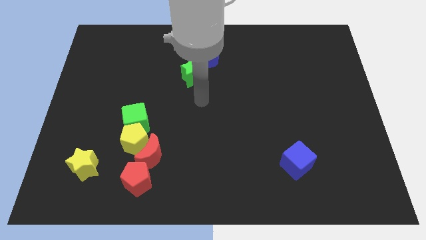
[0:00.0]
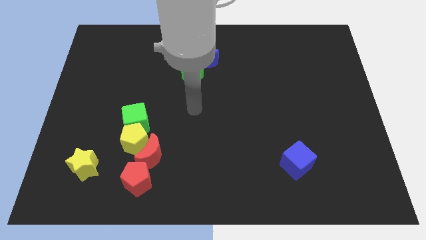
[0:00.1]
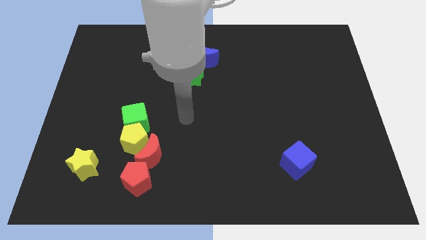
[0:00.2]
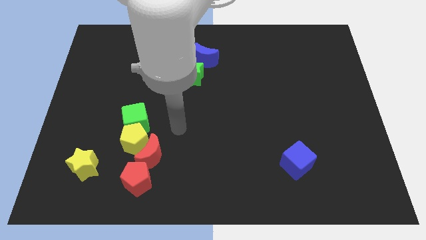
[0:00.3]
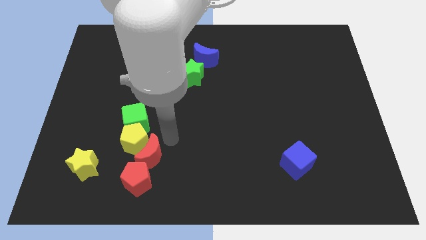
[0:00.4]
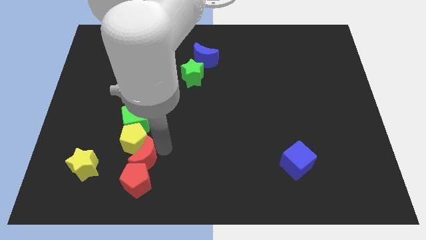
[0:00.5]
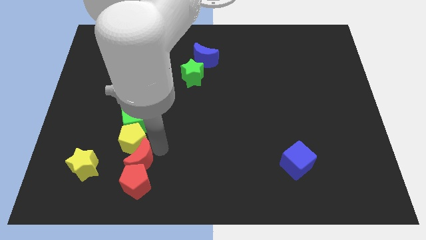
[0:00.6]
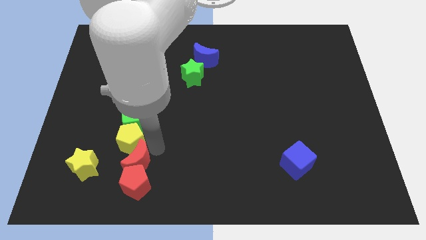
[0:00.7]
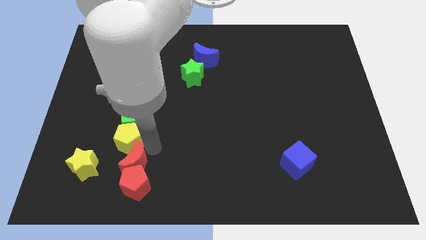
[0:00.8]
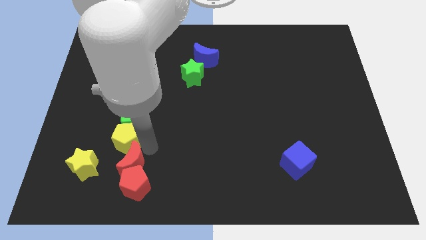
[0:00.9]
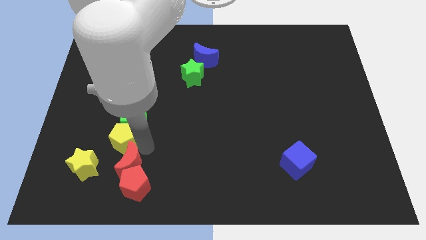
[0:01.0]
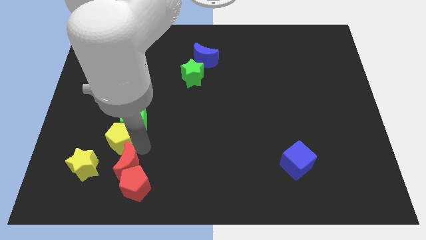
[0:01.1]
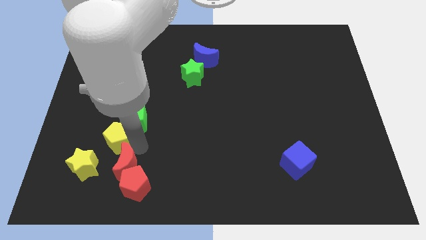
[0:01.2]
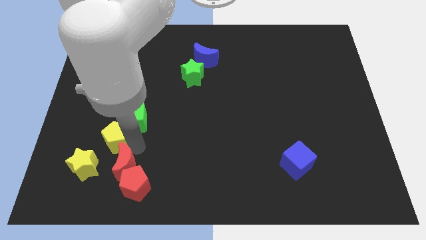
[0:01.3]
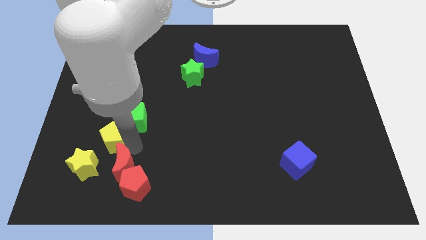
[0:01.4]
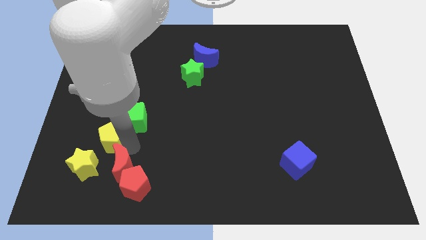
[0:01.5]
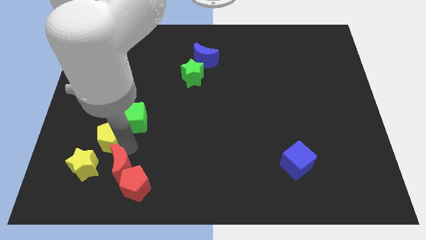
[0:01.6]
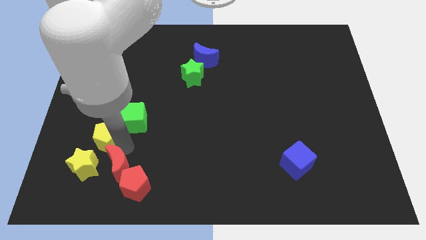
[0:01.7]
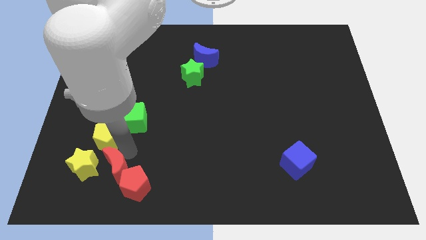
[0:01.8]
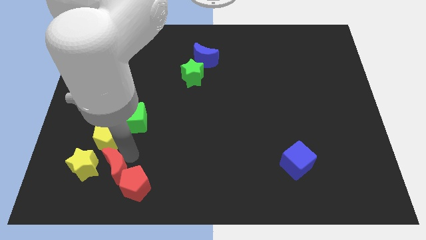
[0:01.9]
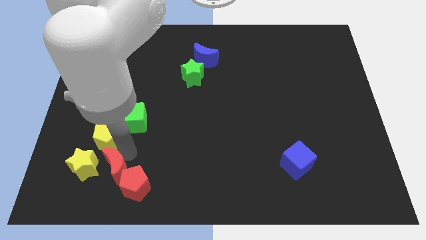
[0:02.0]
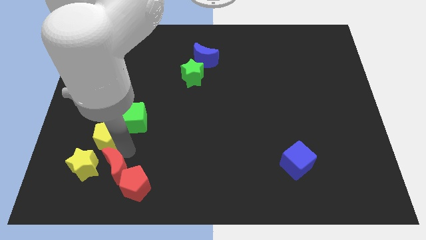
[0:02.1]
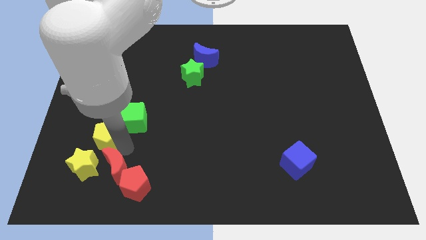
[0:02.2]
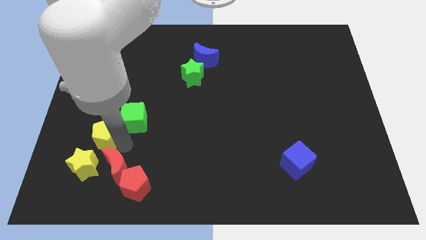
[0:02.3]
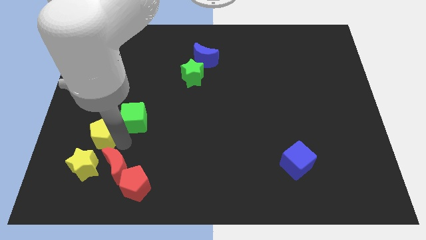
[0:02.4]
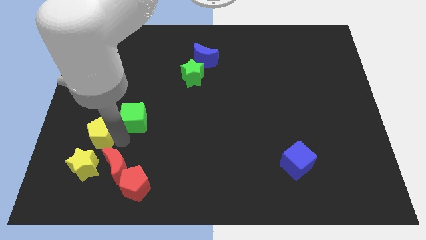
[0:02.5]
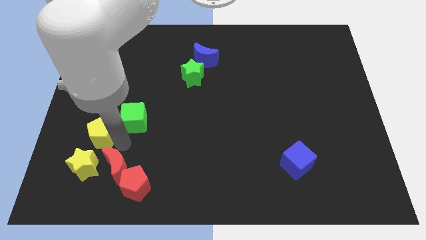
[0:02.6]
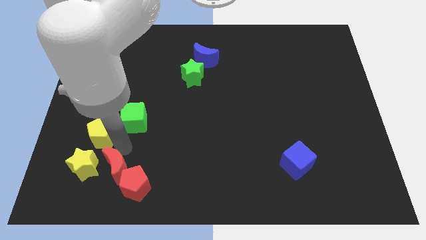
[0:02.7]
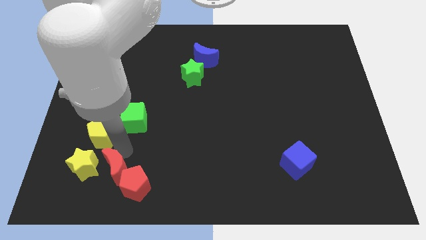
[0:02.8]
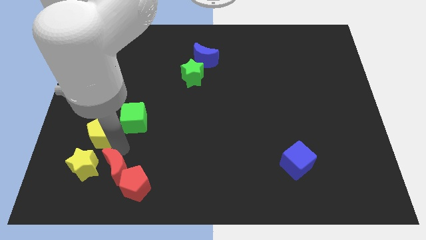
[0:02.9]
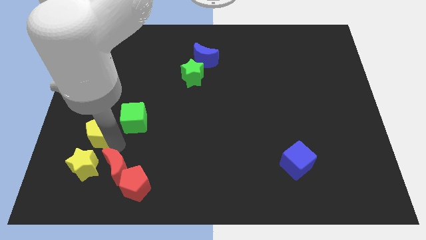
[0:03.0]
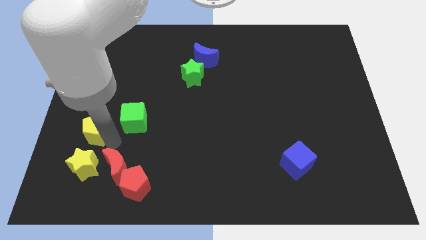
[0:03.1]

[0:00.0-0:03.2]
pull the yellow pentagon apart from the green cube, red moon, and red pentagon

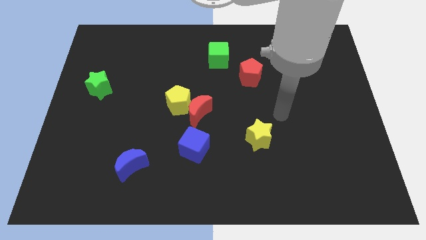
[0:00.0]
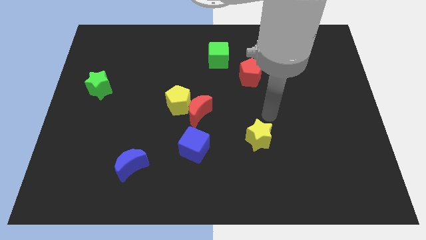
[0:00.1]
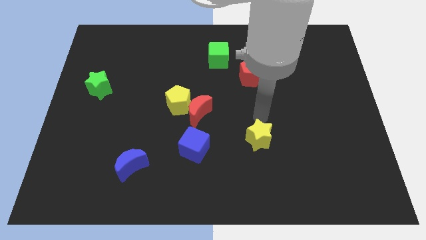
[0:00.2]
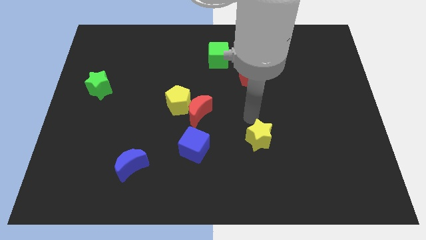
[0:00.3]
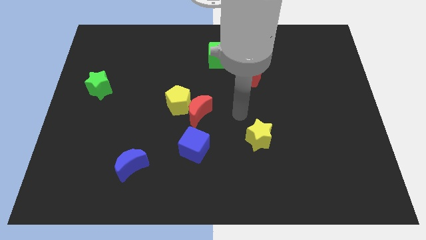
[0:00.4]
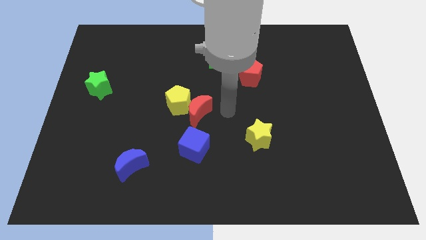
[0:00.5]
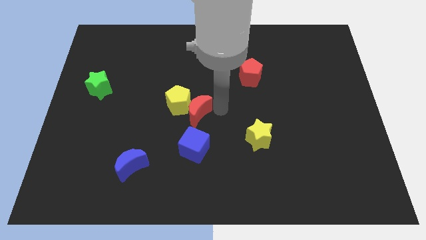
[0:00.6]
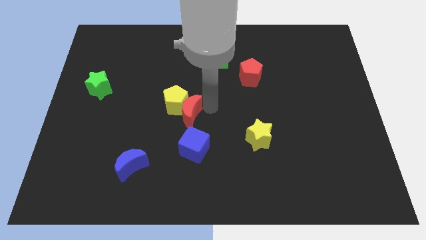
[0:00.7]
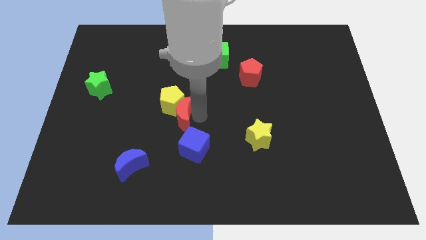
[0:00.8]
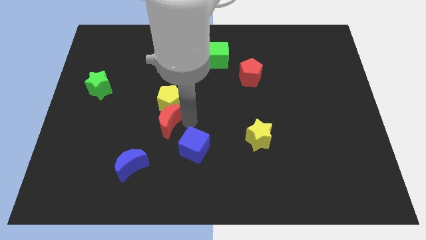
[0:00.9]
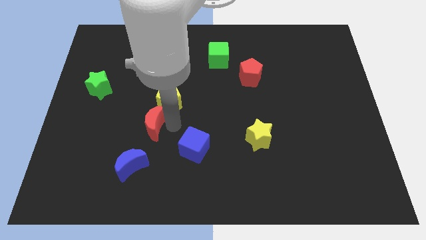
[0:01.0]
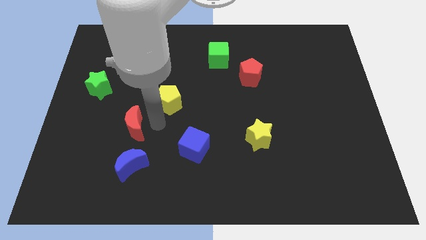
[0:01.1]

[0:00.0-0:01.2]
separate the yellow pentagon from the red moon

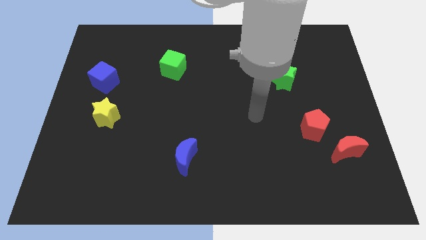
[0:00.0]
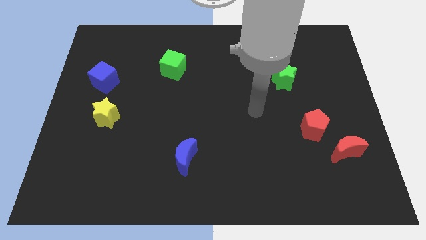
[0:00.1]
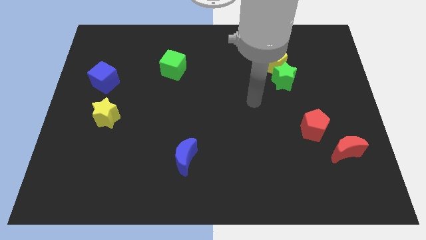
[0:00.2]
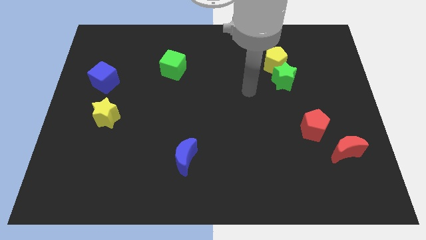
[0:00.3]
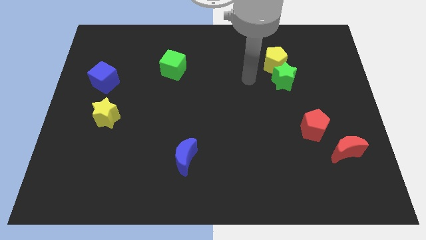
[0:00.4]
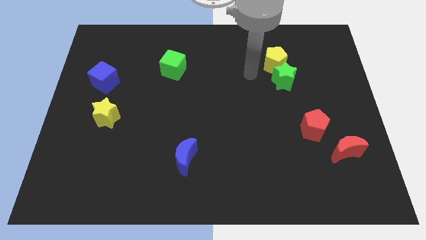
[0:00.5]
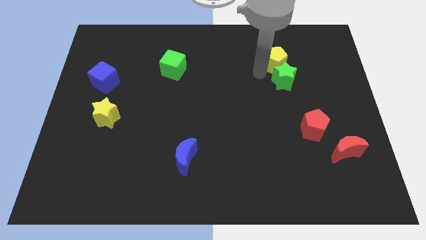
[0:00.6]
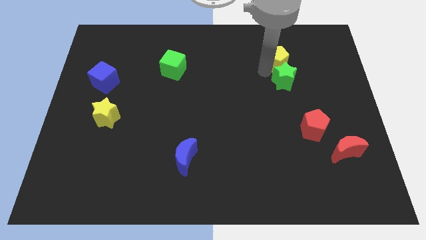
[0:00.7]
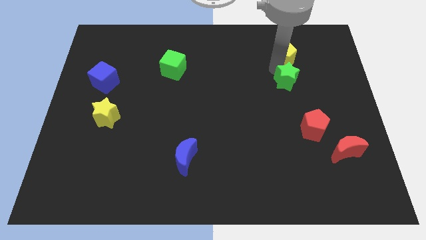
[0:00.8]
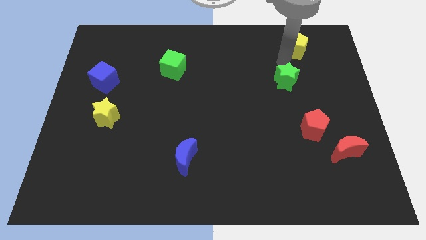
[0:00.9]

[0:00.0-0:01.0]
pull the green star apart from the yellow pentagon

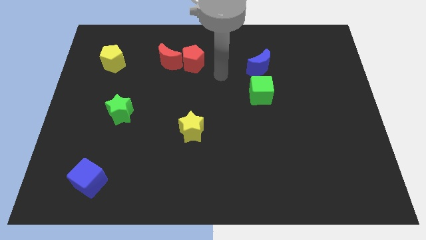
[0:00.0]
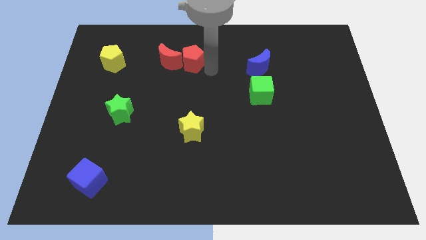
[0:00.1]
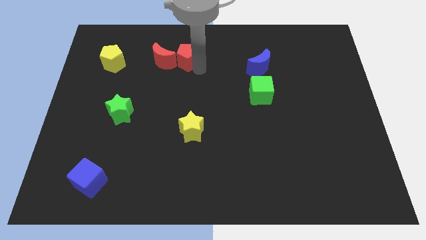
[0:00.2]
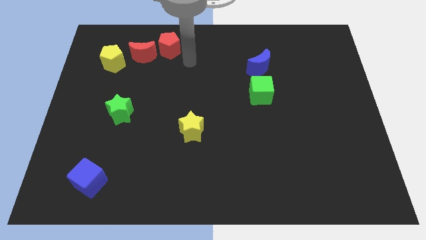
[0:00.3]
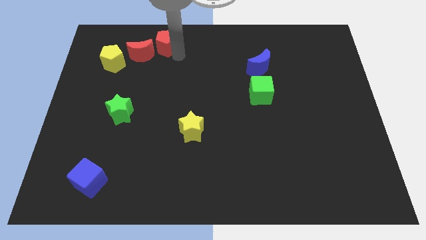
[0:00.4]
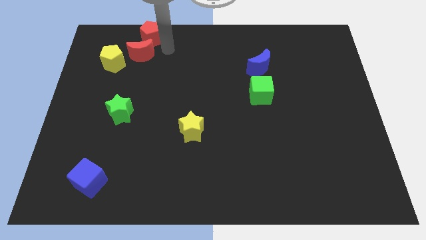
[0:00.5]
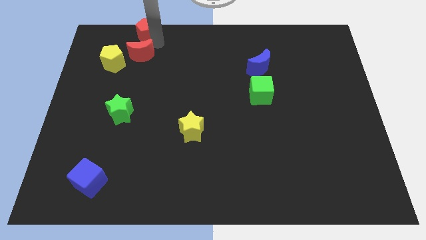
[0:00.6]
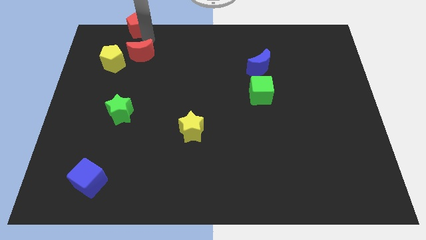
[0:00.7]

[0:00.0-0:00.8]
move the red moon away from the red pentagon

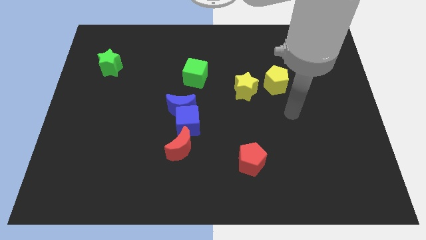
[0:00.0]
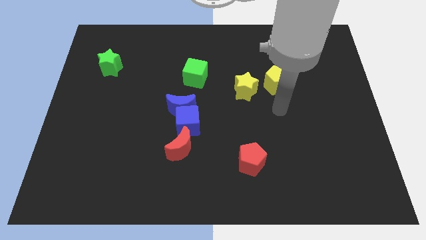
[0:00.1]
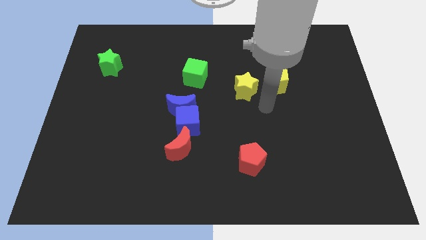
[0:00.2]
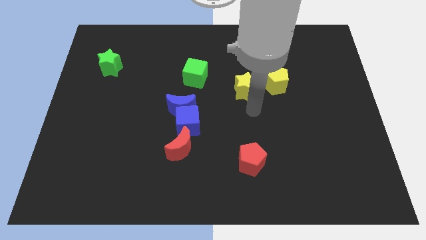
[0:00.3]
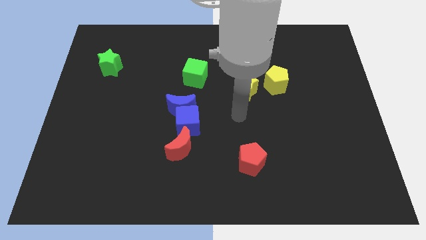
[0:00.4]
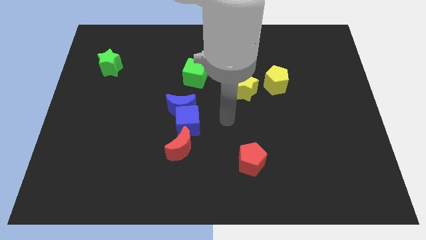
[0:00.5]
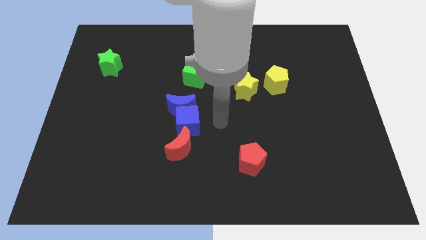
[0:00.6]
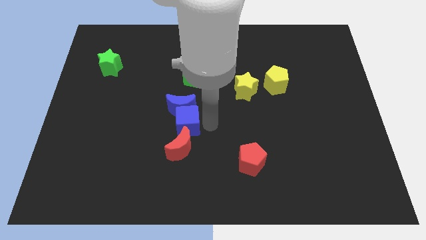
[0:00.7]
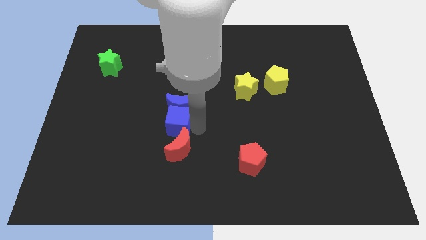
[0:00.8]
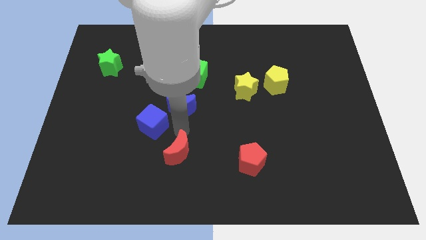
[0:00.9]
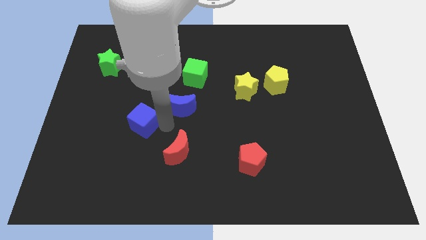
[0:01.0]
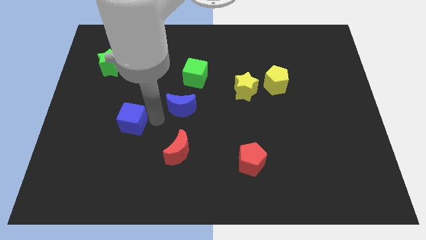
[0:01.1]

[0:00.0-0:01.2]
separate the blue moon from the blue cube

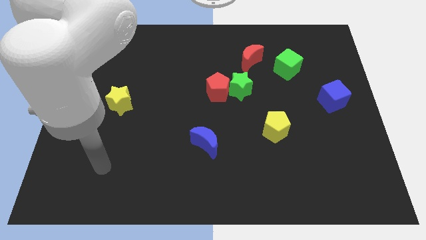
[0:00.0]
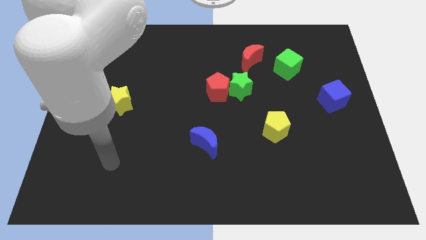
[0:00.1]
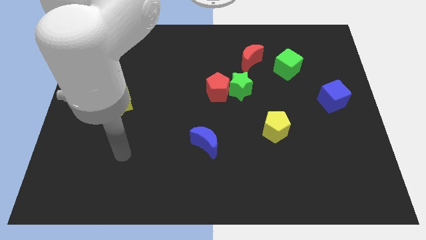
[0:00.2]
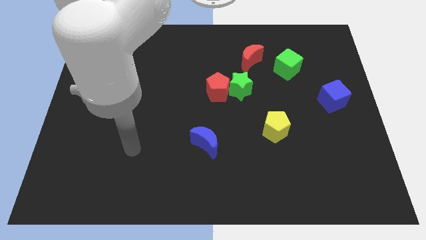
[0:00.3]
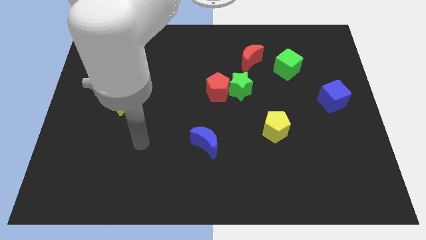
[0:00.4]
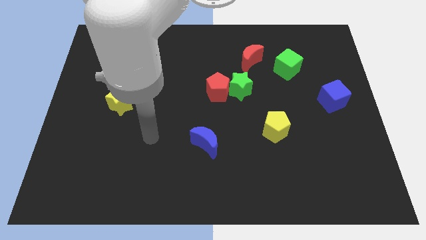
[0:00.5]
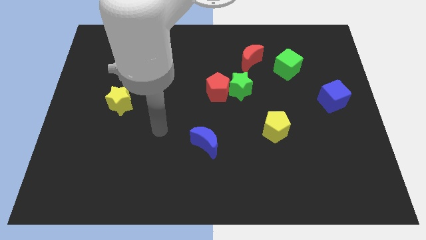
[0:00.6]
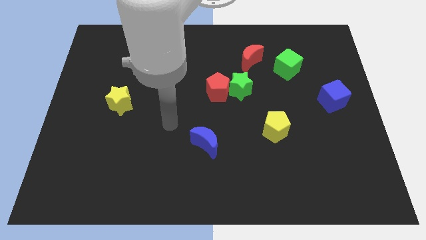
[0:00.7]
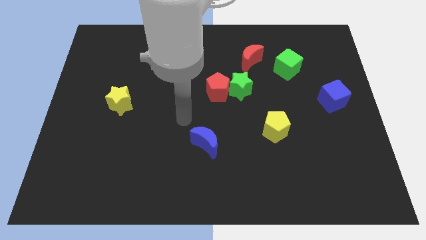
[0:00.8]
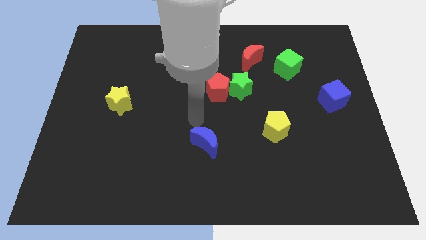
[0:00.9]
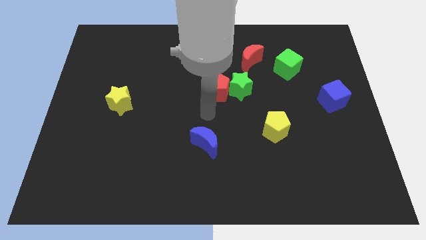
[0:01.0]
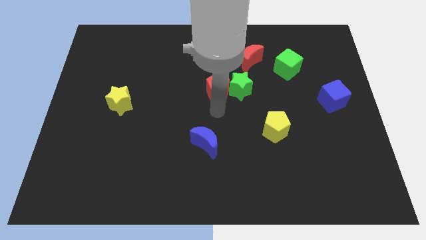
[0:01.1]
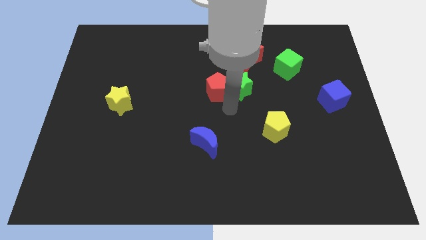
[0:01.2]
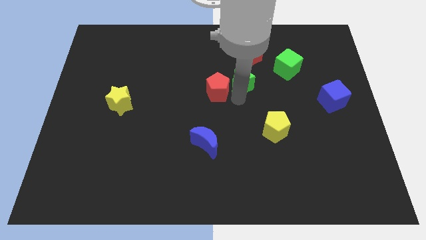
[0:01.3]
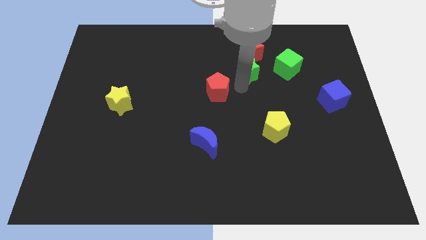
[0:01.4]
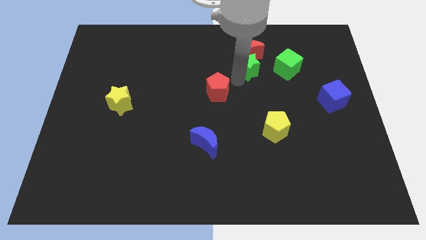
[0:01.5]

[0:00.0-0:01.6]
move the red pentagon away from the green star

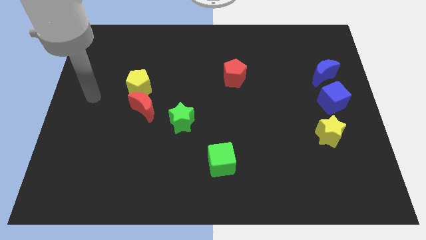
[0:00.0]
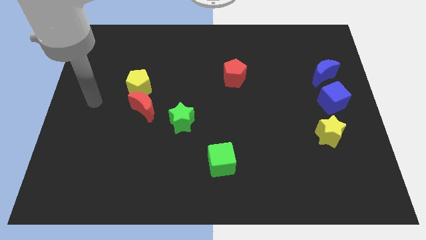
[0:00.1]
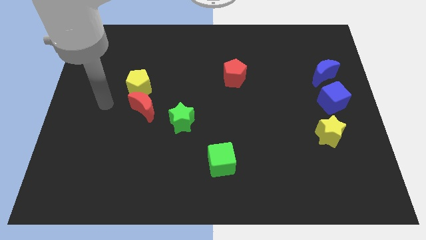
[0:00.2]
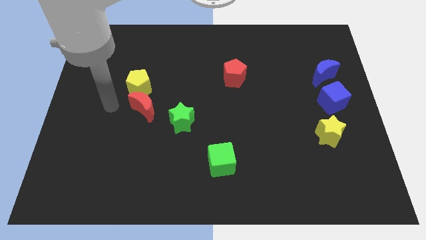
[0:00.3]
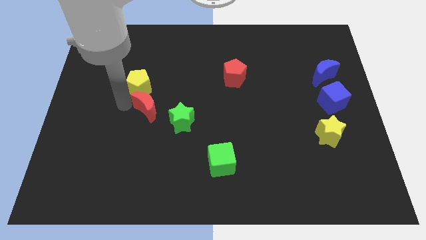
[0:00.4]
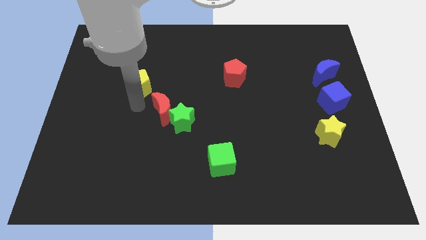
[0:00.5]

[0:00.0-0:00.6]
move the yellow pentagon away from the red moon
